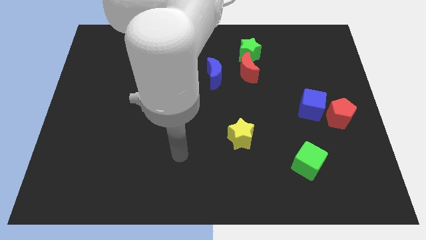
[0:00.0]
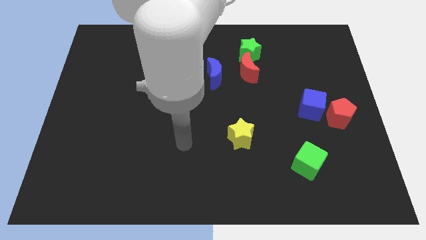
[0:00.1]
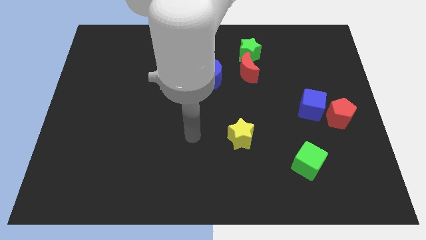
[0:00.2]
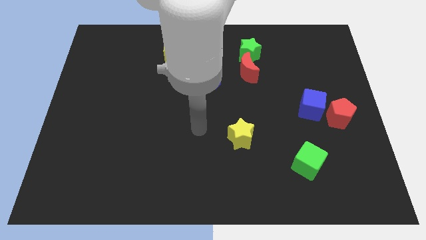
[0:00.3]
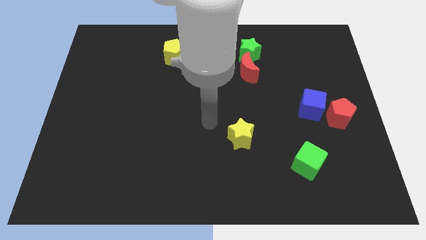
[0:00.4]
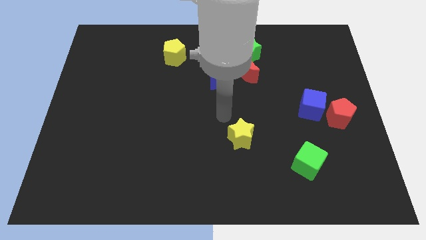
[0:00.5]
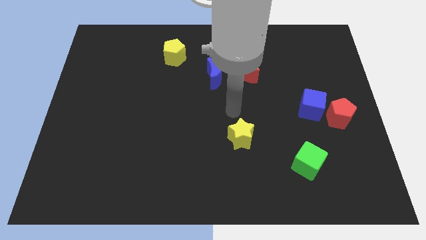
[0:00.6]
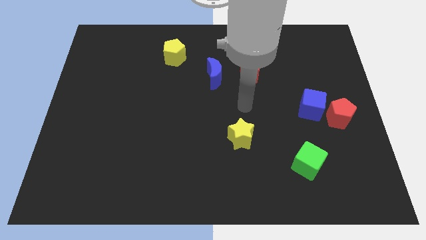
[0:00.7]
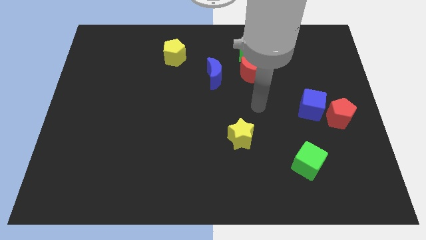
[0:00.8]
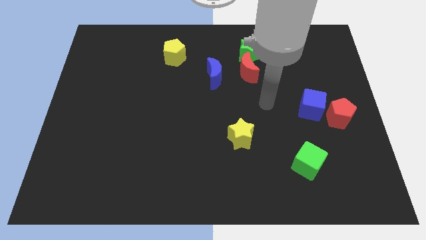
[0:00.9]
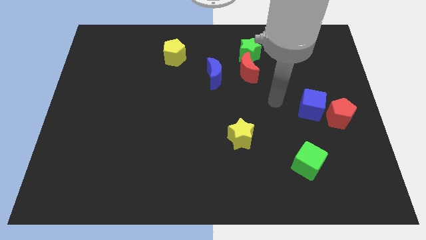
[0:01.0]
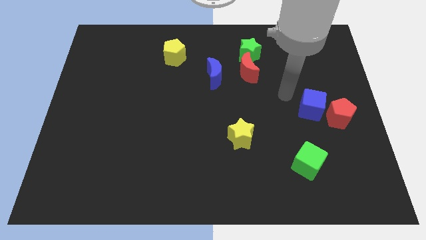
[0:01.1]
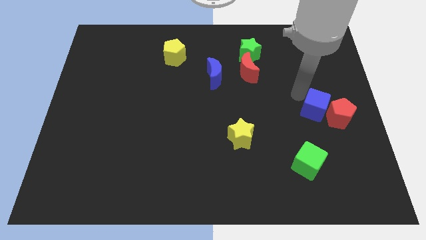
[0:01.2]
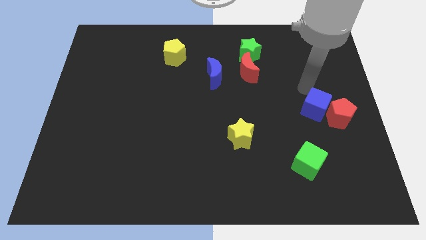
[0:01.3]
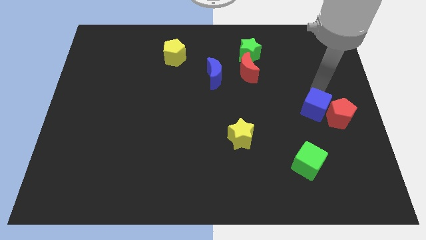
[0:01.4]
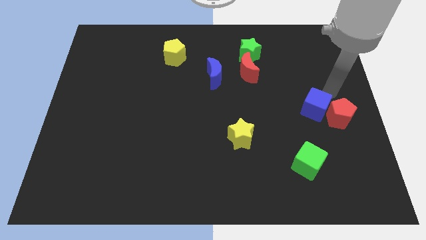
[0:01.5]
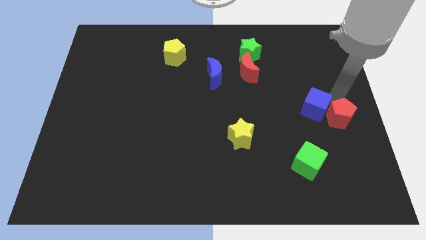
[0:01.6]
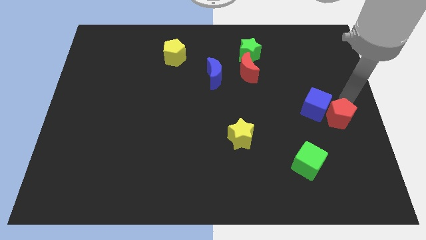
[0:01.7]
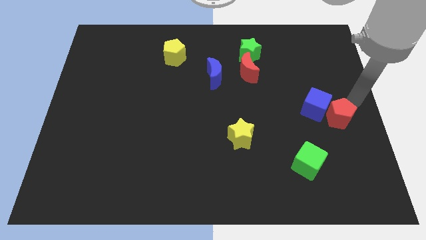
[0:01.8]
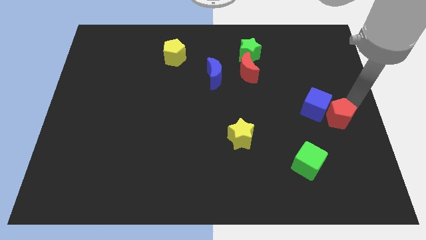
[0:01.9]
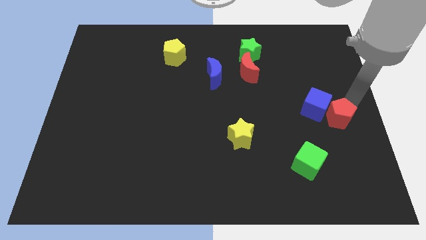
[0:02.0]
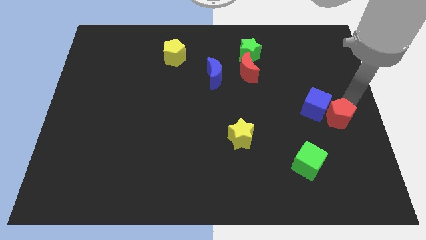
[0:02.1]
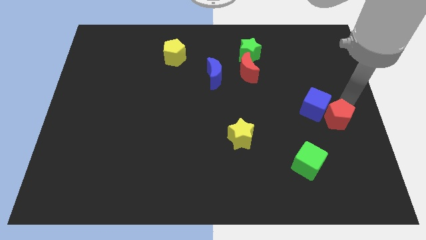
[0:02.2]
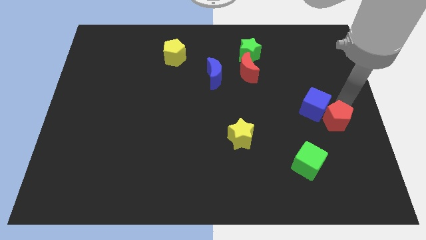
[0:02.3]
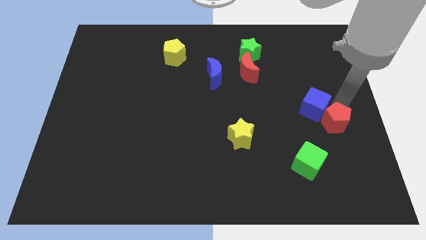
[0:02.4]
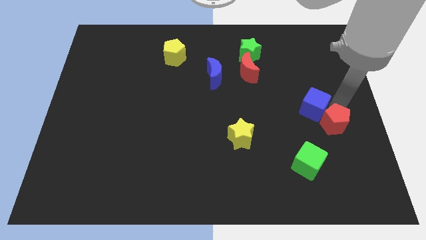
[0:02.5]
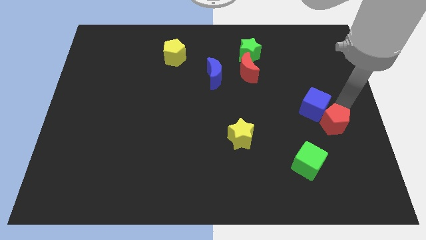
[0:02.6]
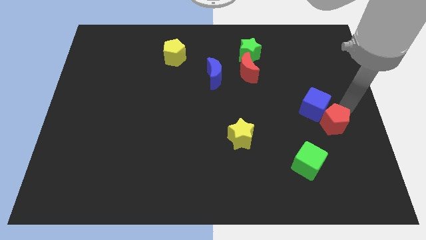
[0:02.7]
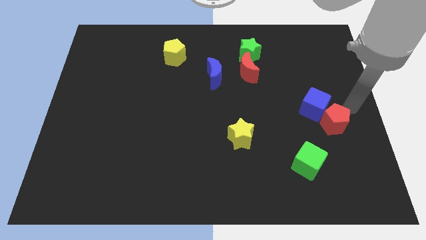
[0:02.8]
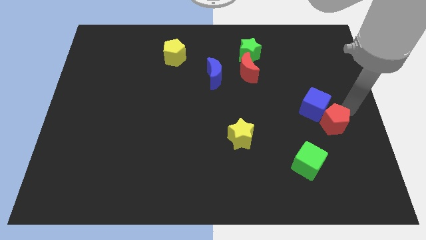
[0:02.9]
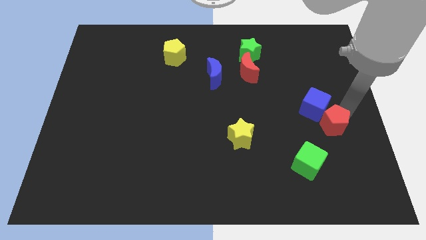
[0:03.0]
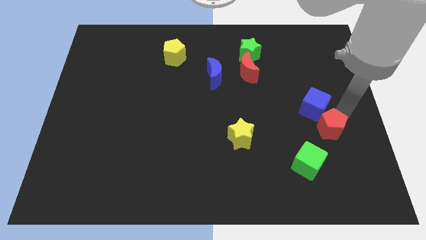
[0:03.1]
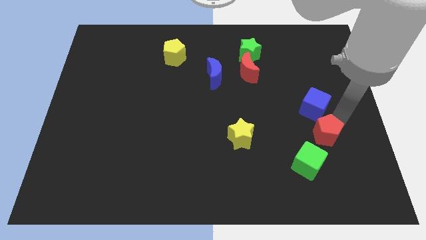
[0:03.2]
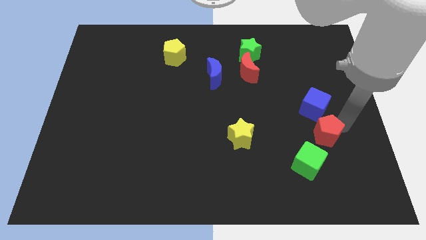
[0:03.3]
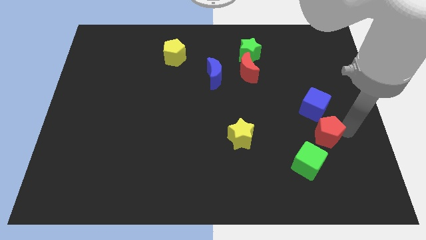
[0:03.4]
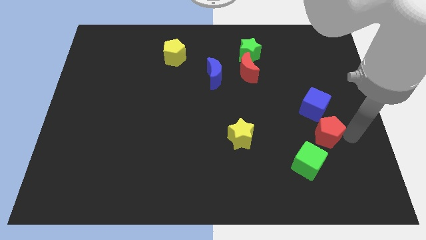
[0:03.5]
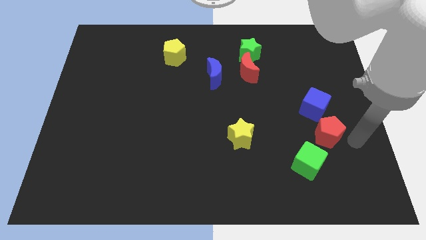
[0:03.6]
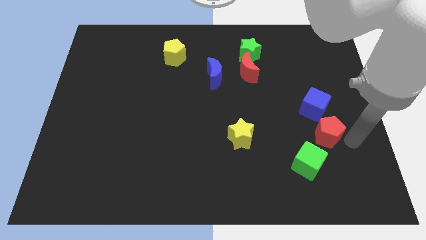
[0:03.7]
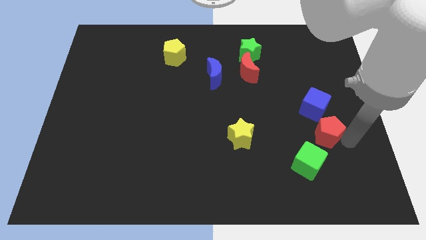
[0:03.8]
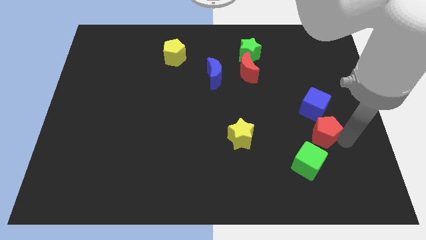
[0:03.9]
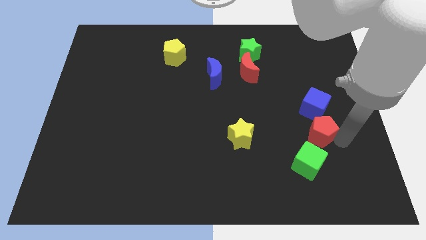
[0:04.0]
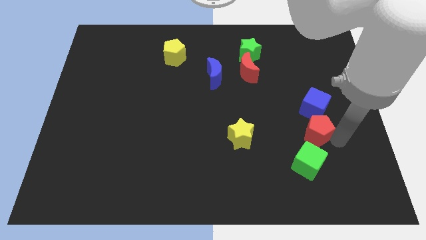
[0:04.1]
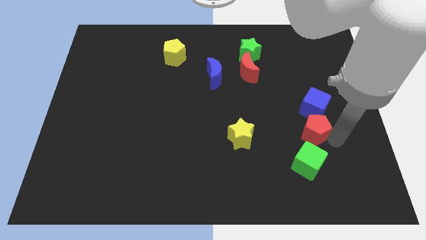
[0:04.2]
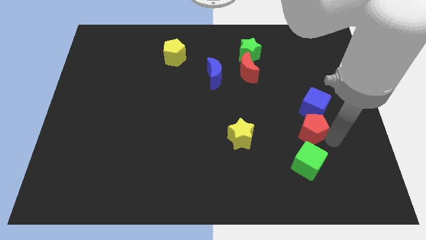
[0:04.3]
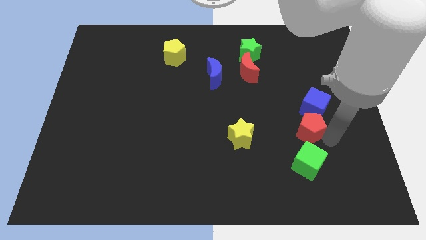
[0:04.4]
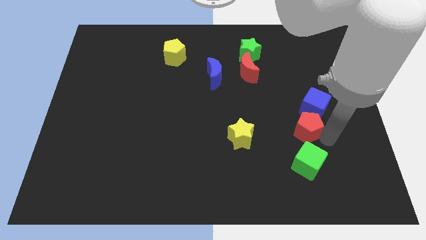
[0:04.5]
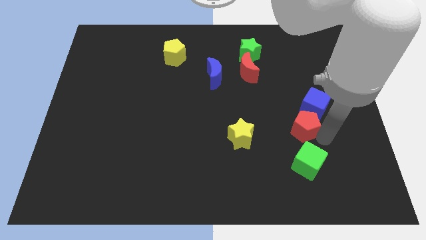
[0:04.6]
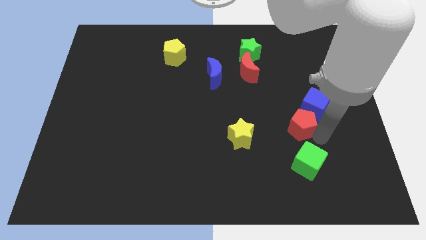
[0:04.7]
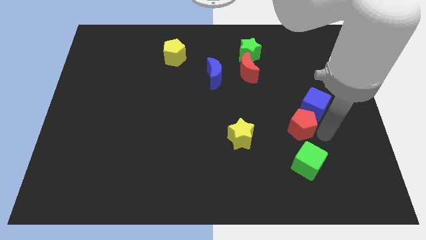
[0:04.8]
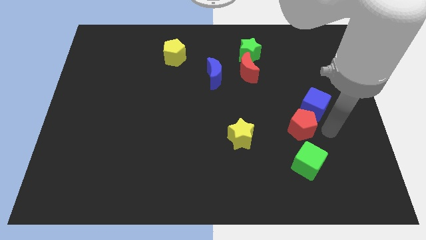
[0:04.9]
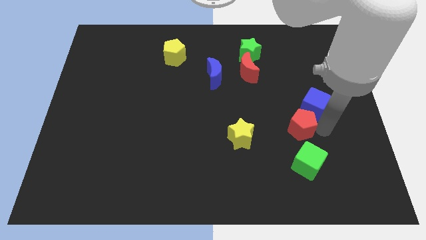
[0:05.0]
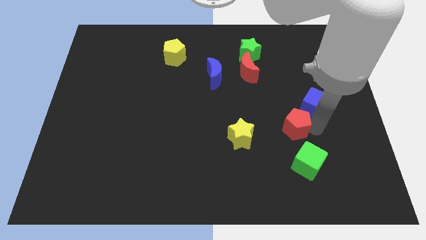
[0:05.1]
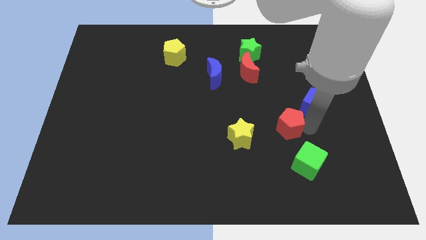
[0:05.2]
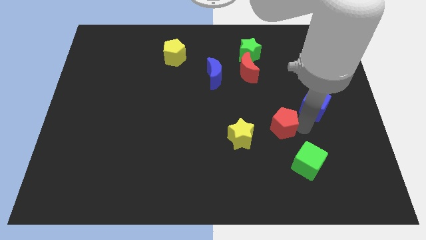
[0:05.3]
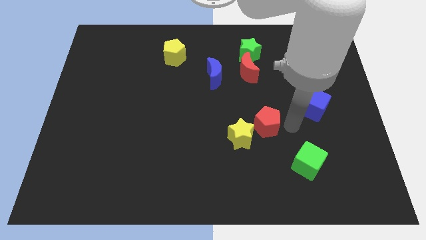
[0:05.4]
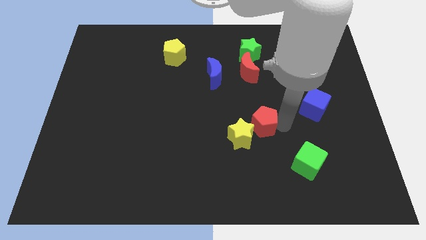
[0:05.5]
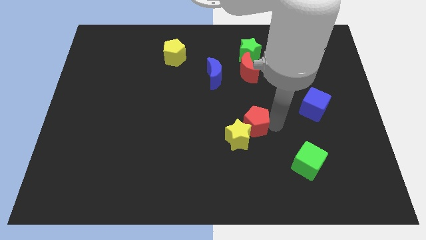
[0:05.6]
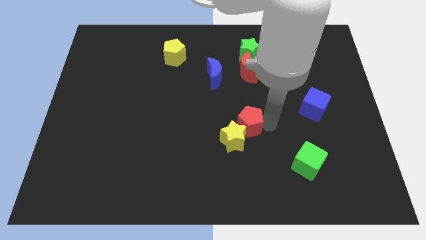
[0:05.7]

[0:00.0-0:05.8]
slide the red pentagon to the left

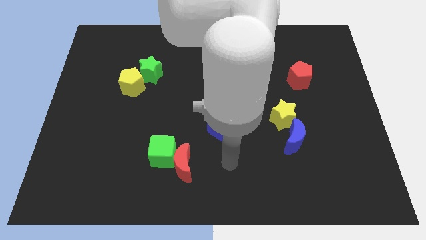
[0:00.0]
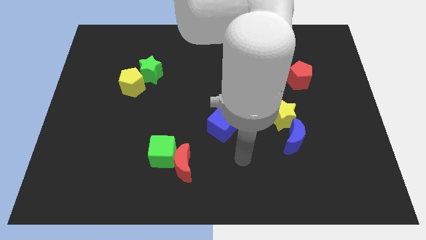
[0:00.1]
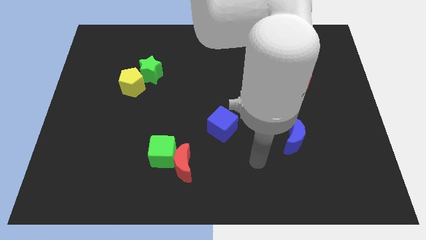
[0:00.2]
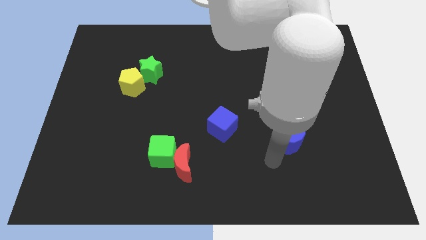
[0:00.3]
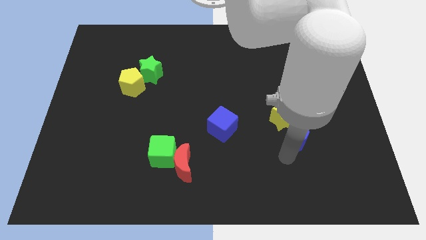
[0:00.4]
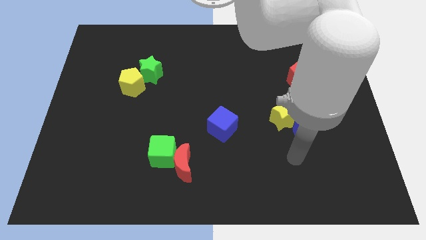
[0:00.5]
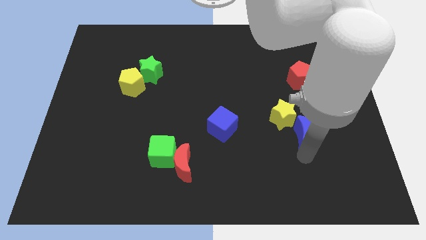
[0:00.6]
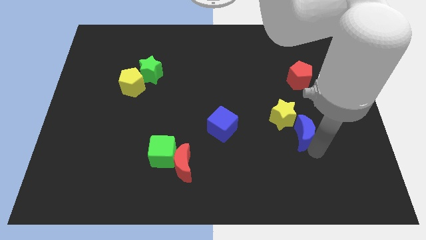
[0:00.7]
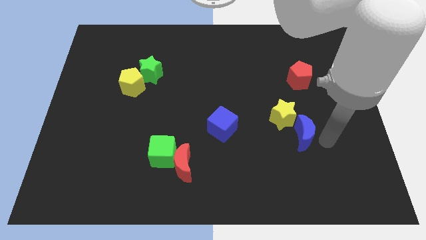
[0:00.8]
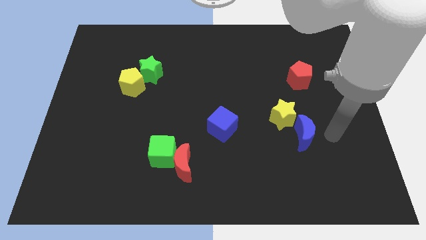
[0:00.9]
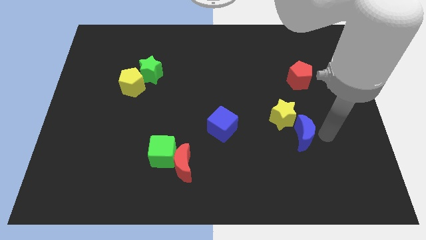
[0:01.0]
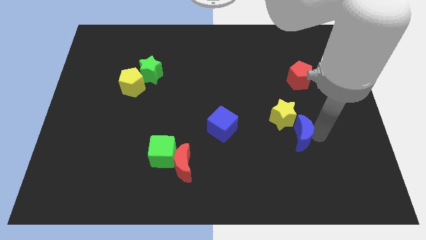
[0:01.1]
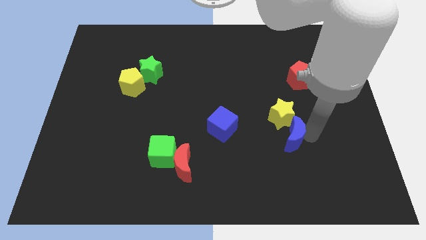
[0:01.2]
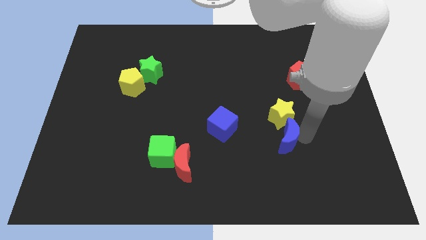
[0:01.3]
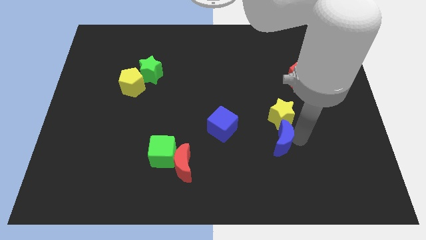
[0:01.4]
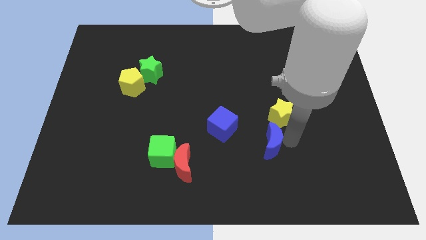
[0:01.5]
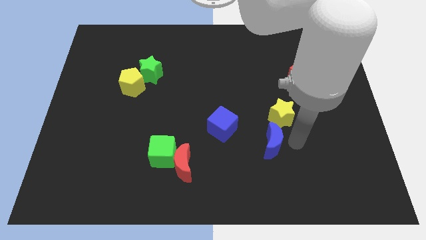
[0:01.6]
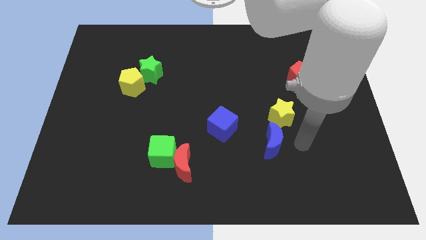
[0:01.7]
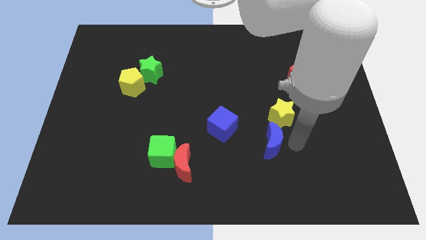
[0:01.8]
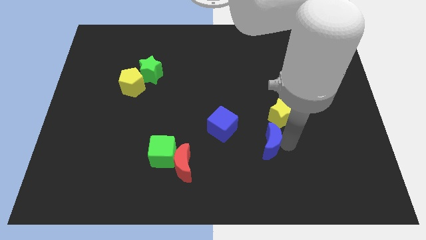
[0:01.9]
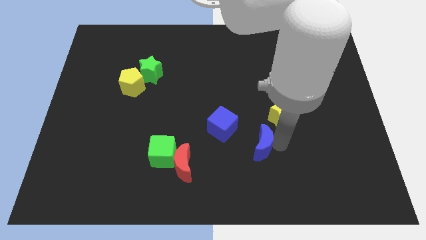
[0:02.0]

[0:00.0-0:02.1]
slide the blue moon a little bit to the left
